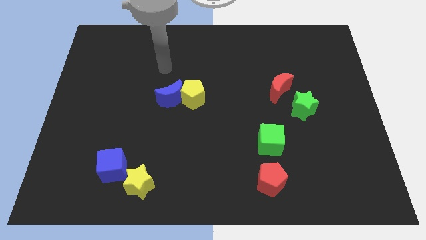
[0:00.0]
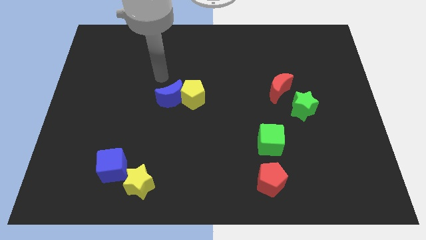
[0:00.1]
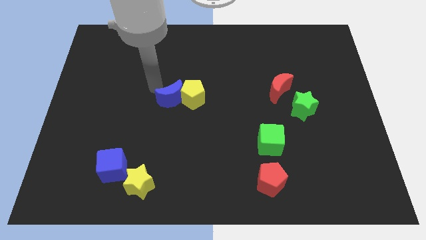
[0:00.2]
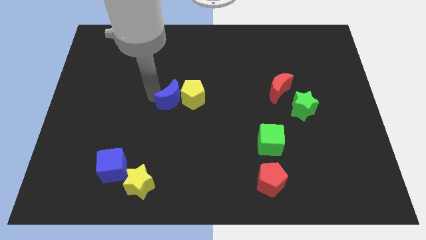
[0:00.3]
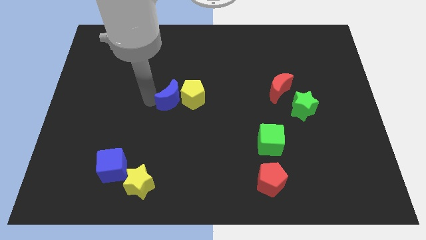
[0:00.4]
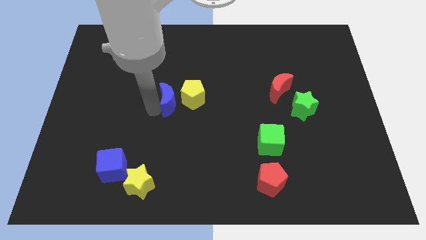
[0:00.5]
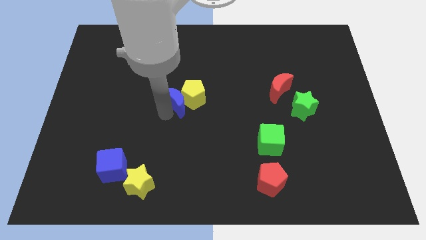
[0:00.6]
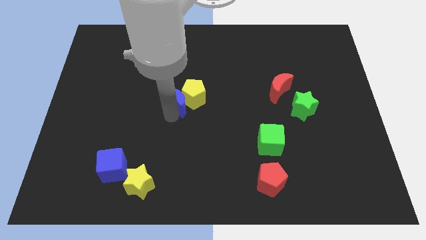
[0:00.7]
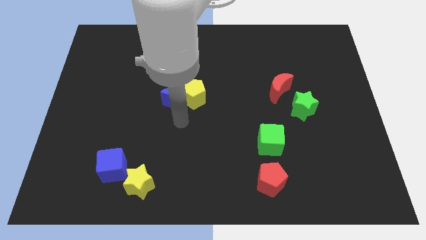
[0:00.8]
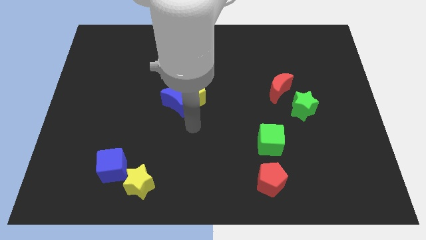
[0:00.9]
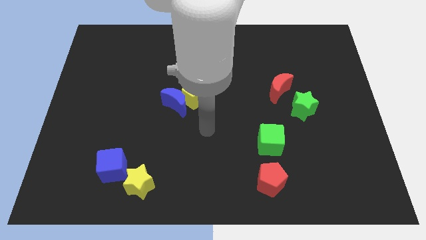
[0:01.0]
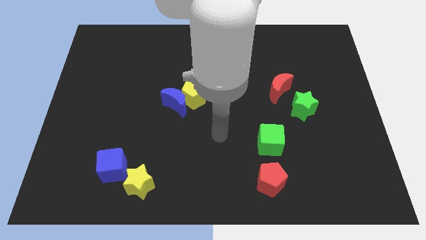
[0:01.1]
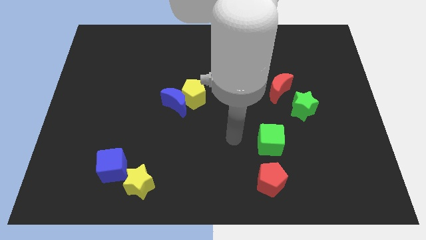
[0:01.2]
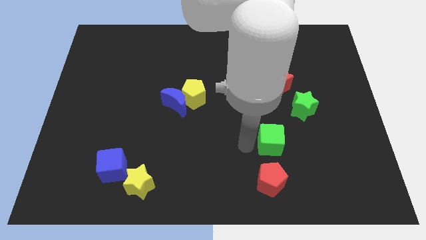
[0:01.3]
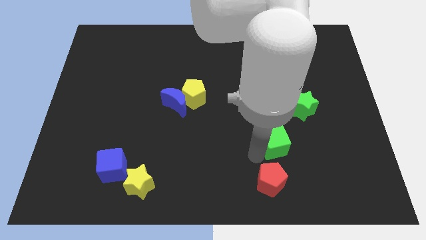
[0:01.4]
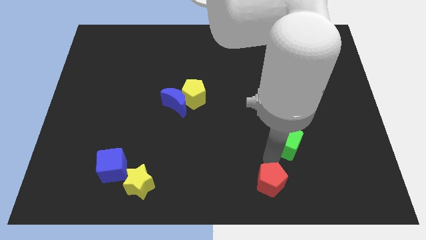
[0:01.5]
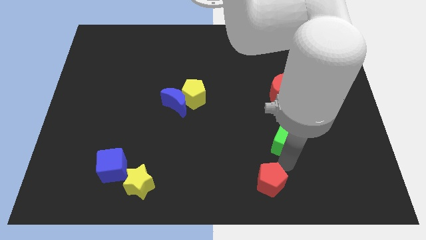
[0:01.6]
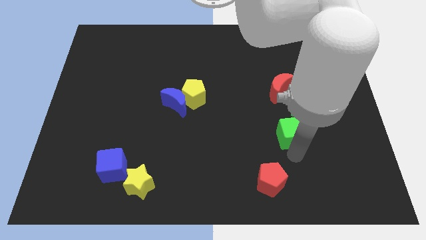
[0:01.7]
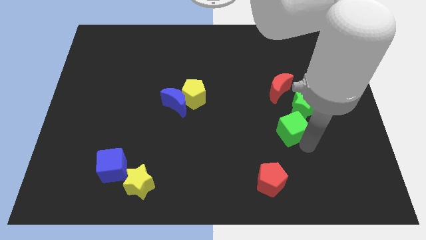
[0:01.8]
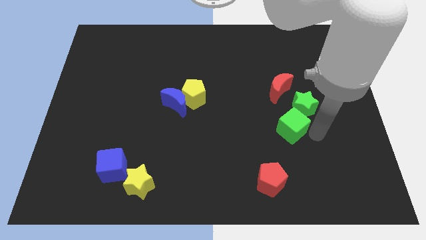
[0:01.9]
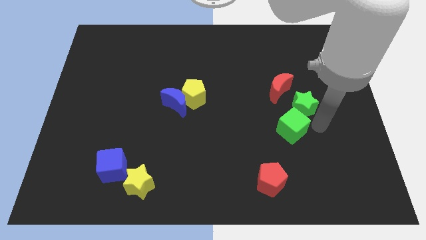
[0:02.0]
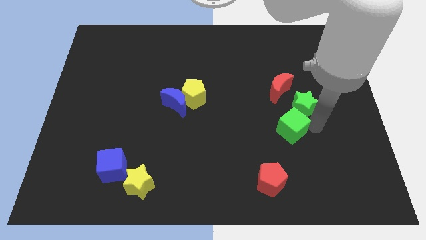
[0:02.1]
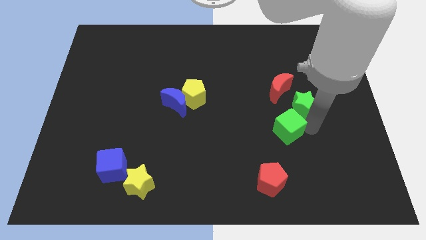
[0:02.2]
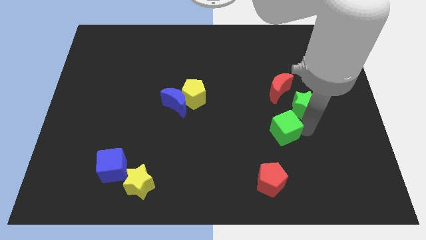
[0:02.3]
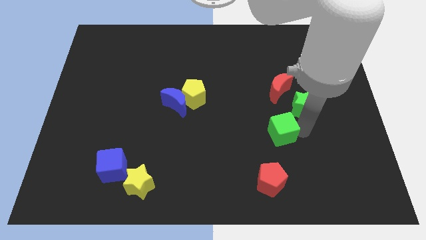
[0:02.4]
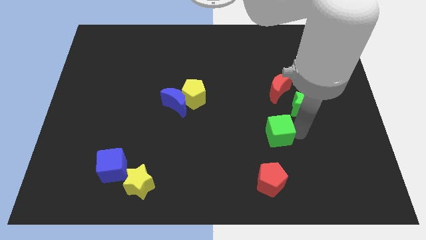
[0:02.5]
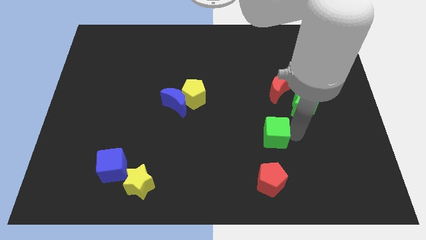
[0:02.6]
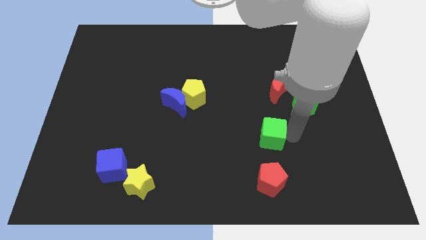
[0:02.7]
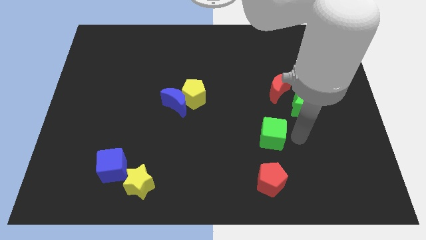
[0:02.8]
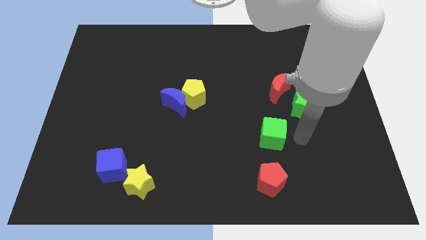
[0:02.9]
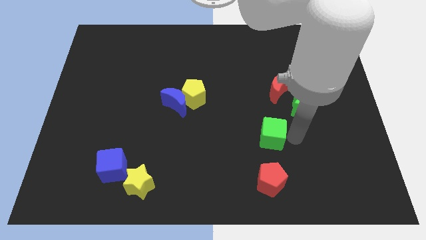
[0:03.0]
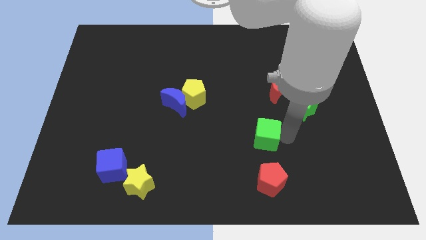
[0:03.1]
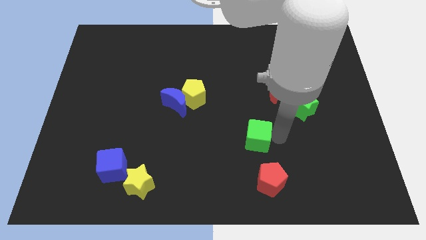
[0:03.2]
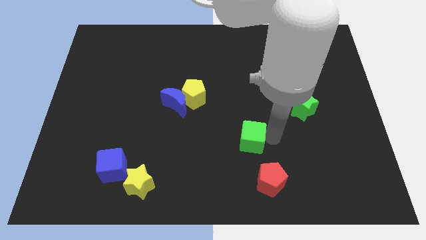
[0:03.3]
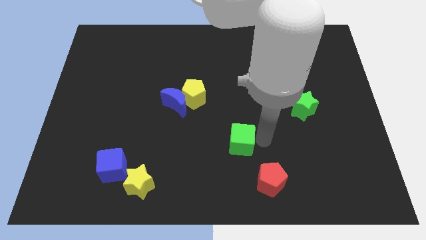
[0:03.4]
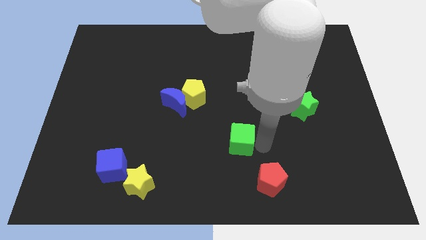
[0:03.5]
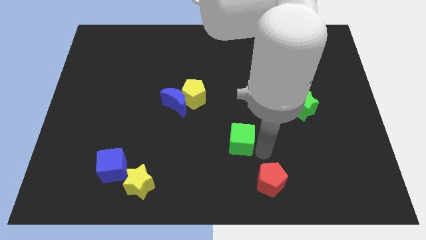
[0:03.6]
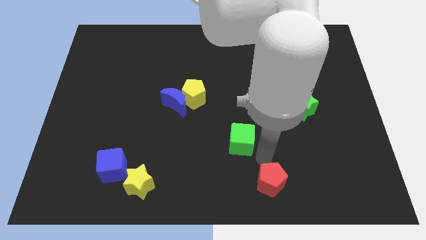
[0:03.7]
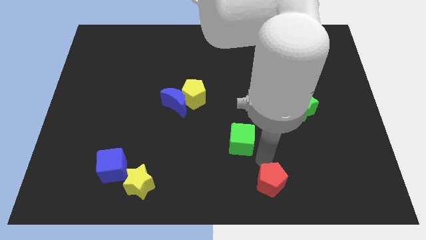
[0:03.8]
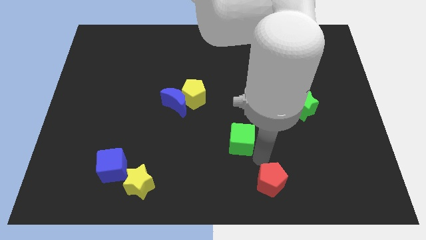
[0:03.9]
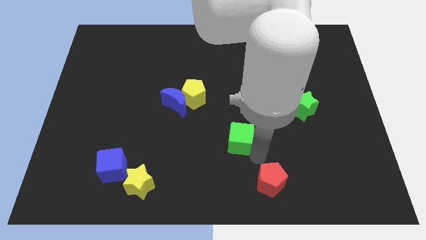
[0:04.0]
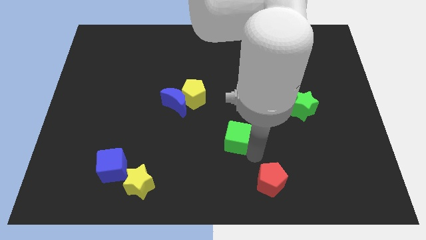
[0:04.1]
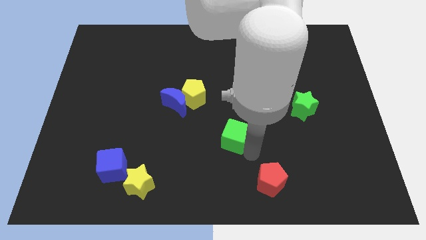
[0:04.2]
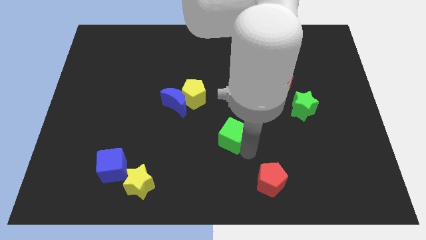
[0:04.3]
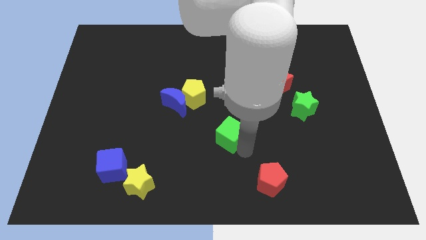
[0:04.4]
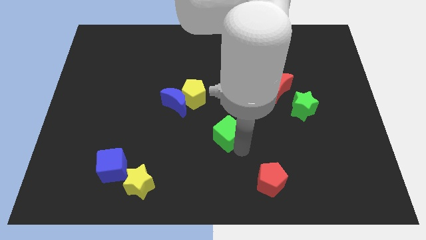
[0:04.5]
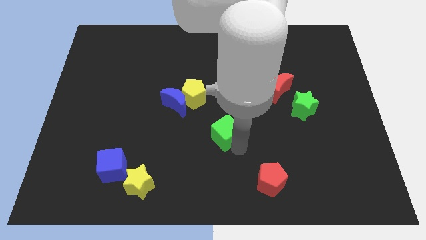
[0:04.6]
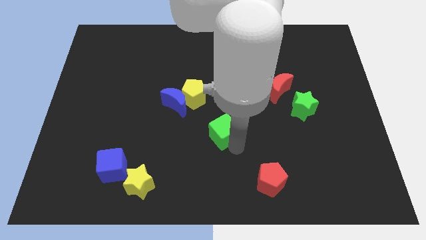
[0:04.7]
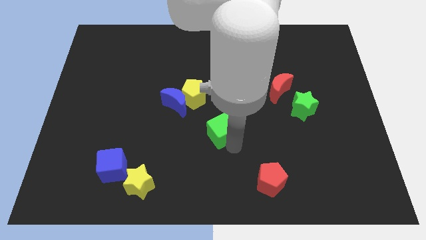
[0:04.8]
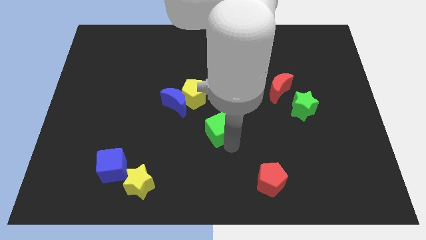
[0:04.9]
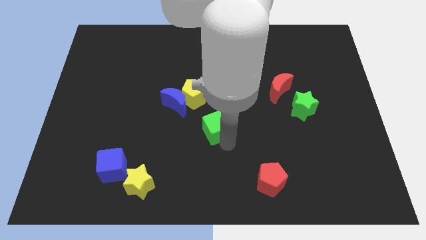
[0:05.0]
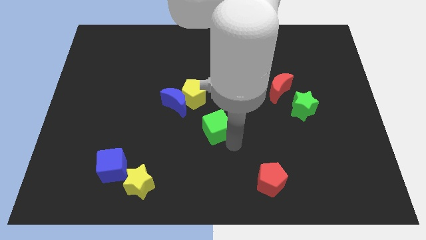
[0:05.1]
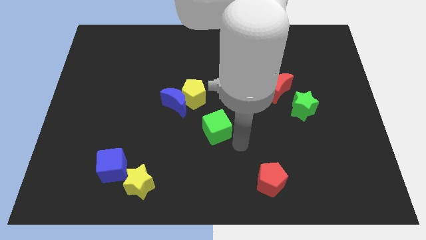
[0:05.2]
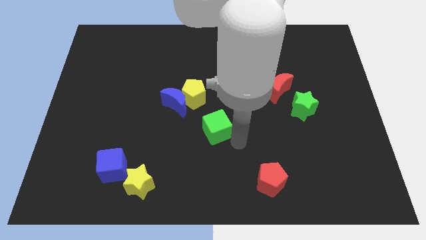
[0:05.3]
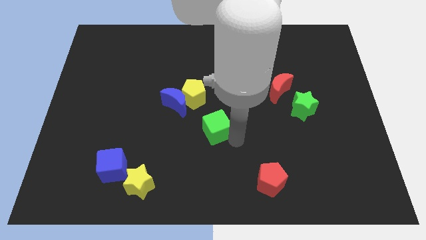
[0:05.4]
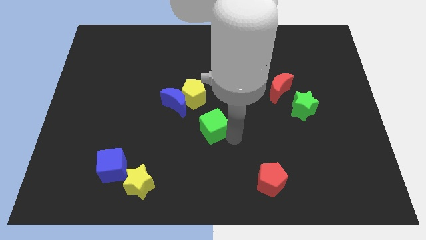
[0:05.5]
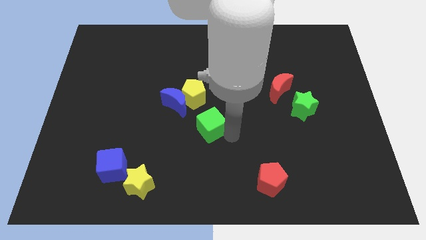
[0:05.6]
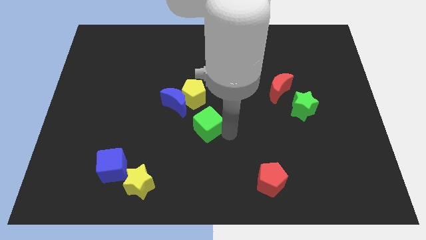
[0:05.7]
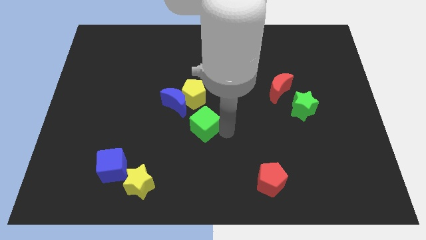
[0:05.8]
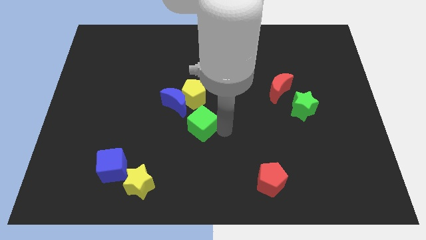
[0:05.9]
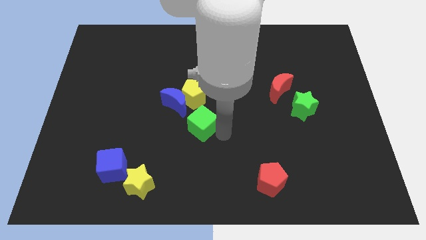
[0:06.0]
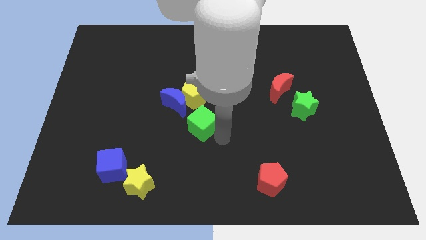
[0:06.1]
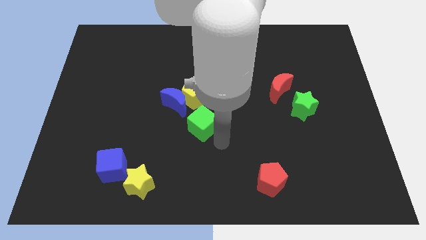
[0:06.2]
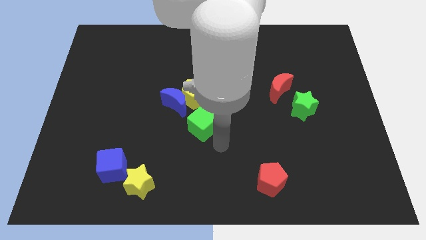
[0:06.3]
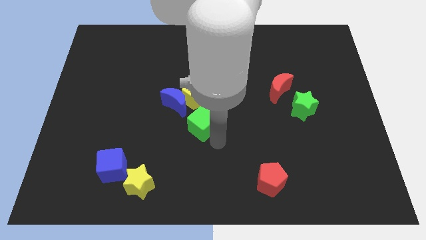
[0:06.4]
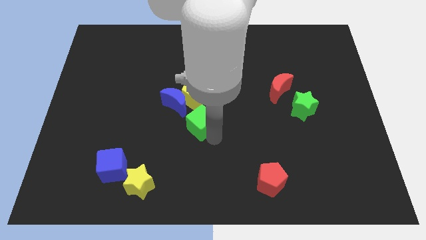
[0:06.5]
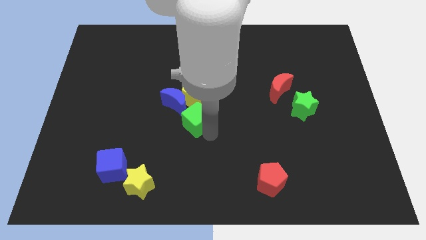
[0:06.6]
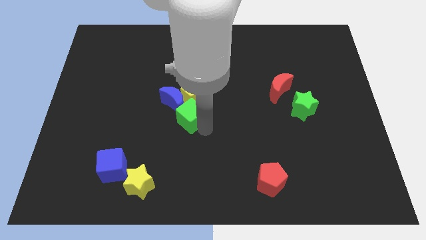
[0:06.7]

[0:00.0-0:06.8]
slide the green cube to the blue moon

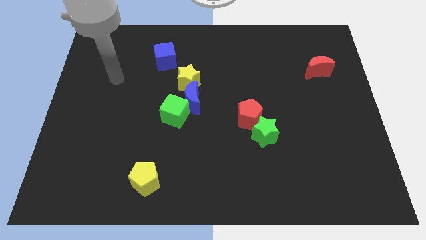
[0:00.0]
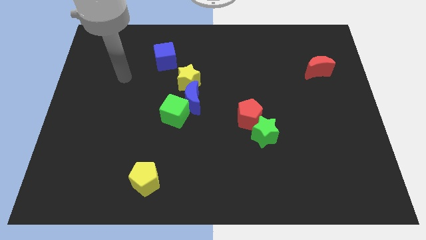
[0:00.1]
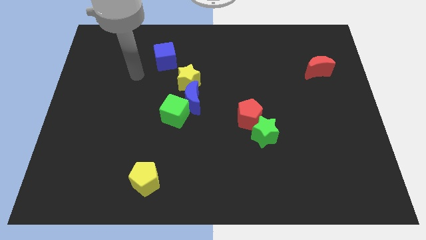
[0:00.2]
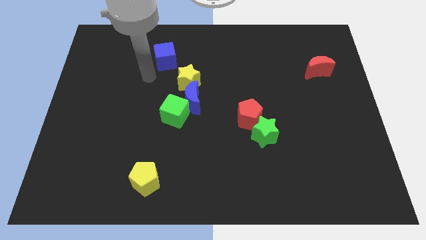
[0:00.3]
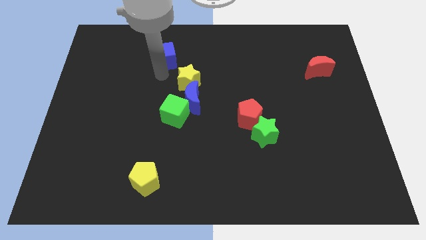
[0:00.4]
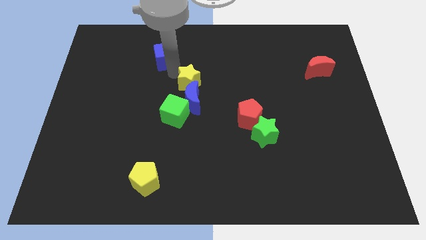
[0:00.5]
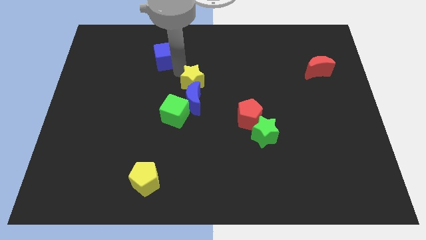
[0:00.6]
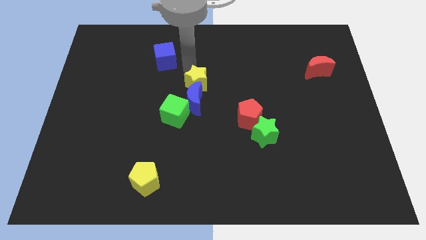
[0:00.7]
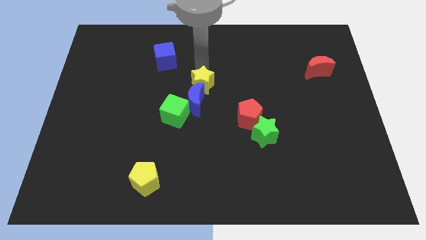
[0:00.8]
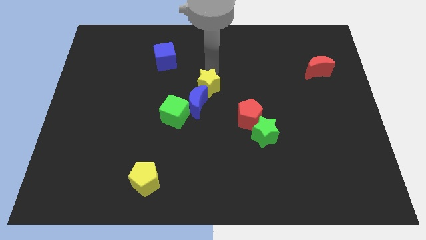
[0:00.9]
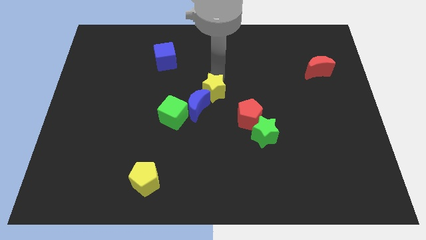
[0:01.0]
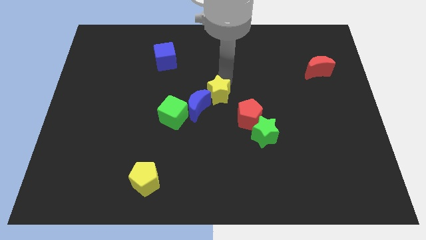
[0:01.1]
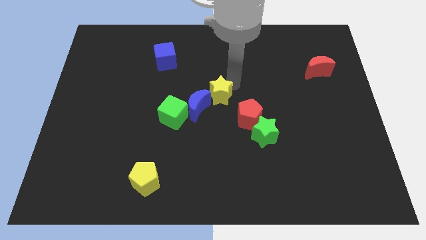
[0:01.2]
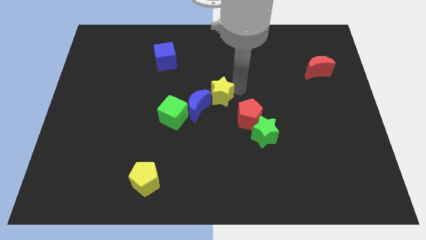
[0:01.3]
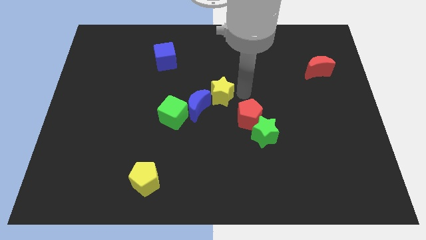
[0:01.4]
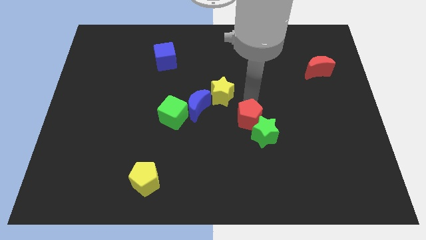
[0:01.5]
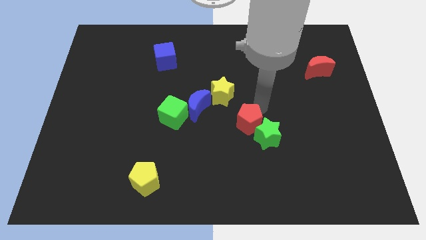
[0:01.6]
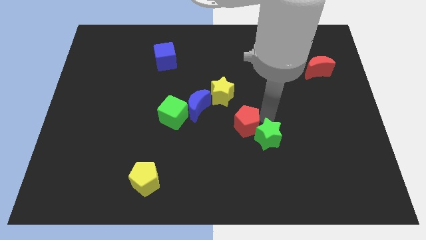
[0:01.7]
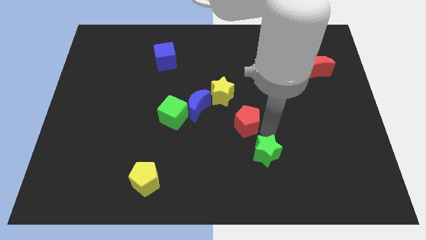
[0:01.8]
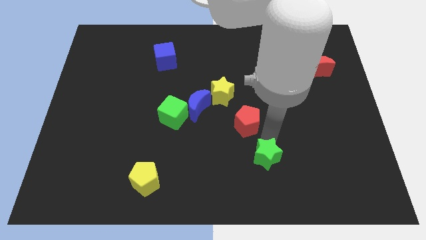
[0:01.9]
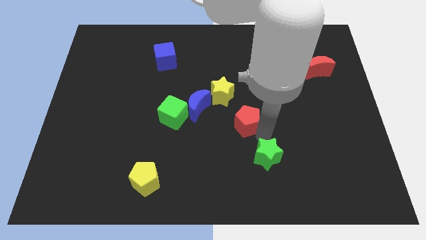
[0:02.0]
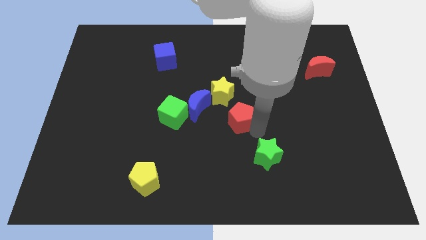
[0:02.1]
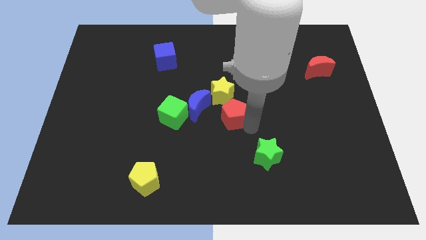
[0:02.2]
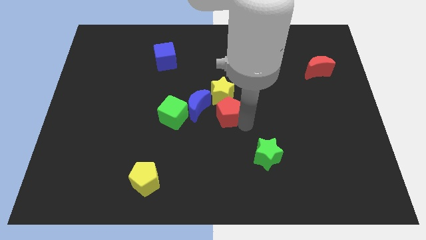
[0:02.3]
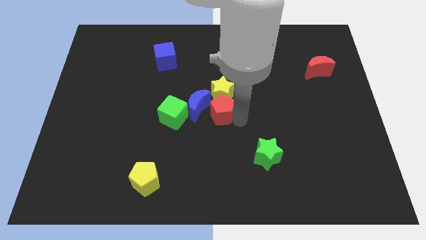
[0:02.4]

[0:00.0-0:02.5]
push the red pentagon to the blue moon
